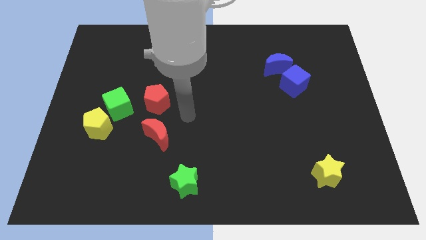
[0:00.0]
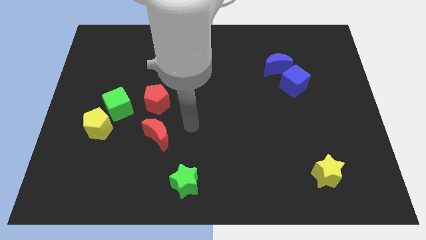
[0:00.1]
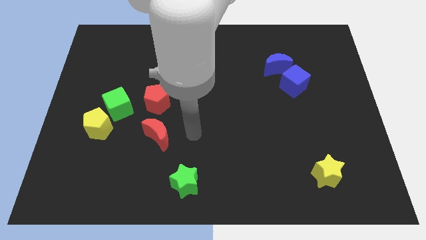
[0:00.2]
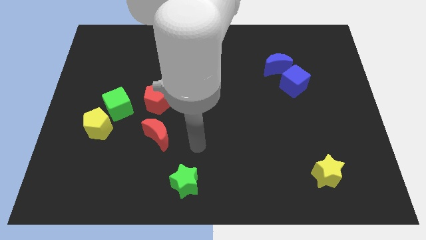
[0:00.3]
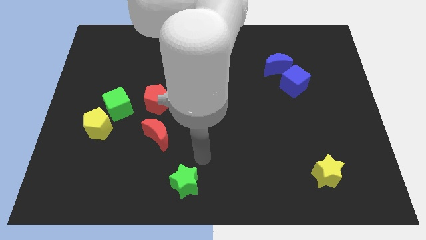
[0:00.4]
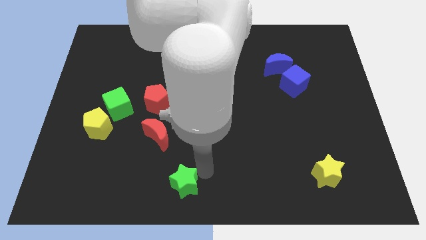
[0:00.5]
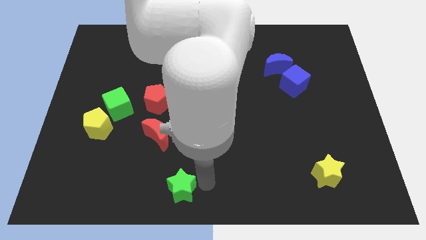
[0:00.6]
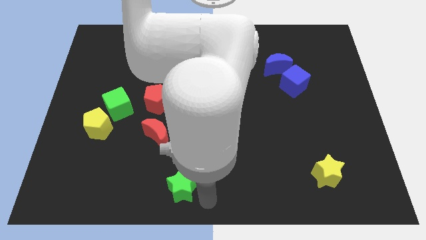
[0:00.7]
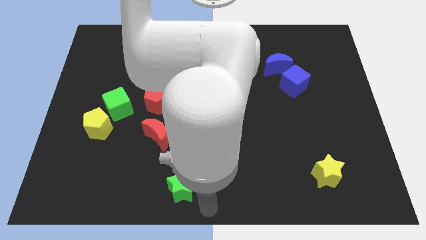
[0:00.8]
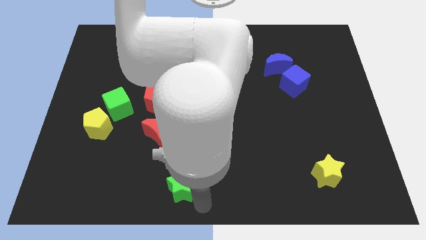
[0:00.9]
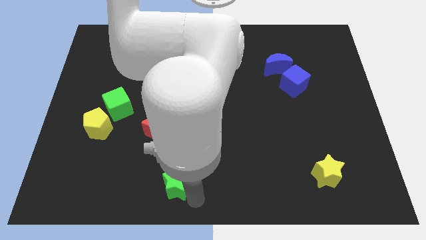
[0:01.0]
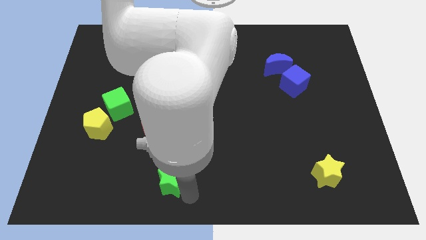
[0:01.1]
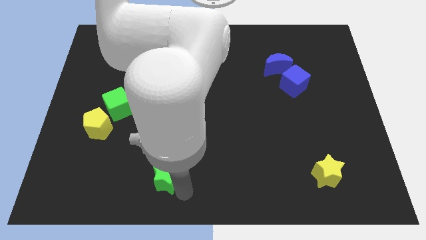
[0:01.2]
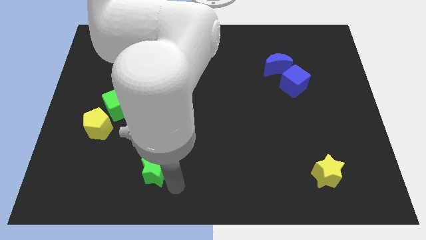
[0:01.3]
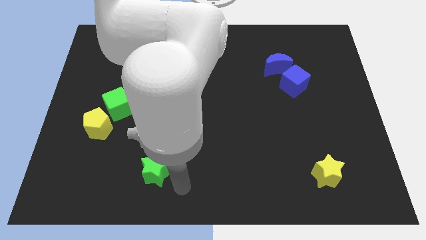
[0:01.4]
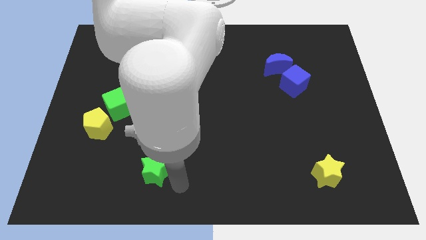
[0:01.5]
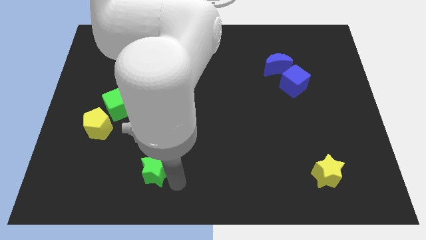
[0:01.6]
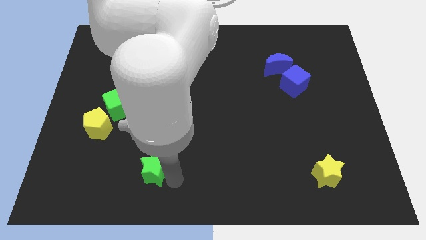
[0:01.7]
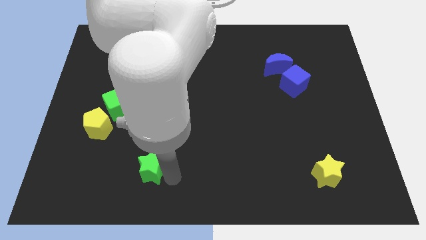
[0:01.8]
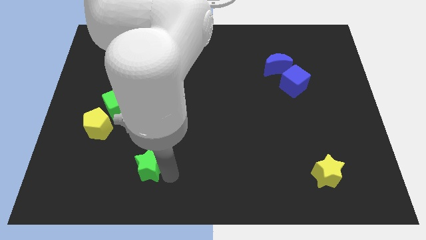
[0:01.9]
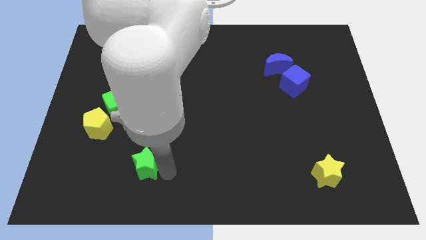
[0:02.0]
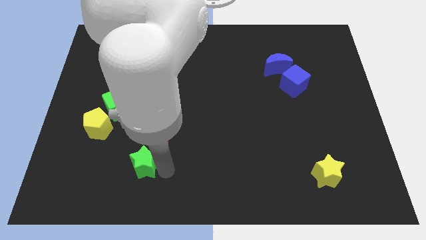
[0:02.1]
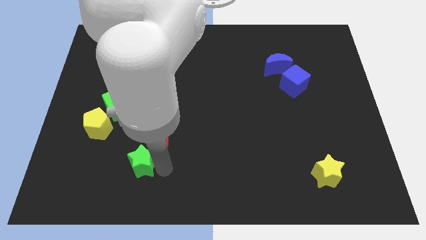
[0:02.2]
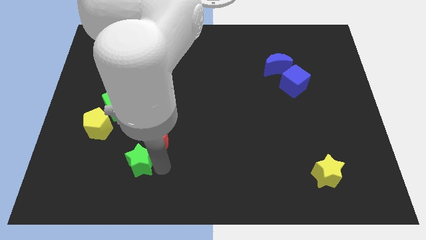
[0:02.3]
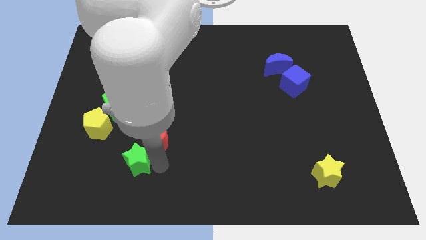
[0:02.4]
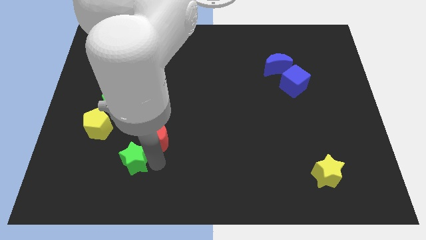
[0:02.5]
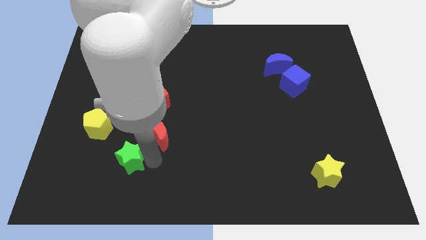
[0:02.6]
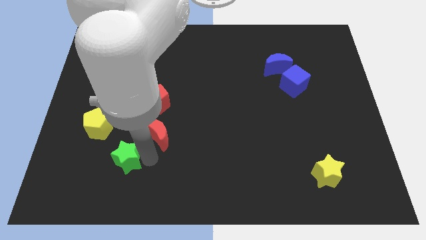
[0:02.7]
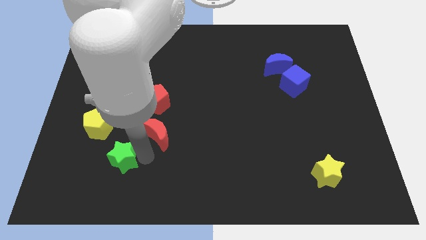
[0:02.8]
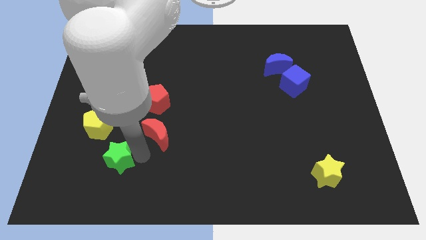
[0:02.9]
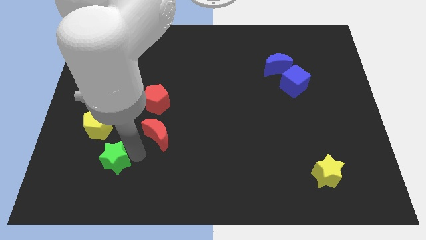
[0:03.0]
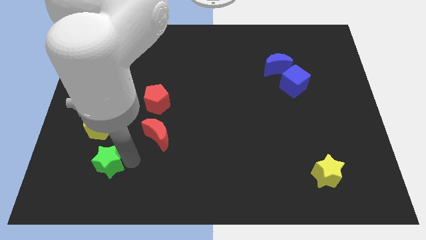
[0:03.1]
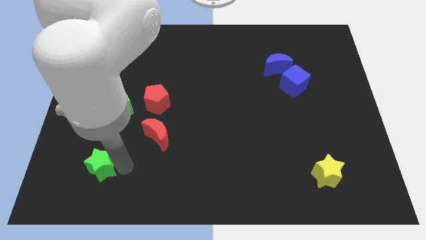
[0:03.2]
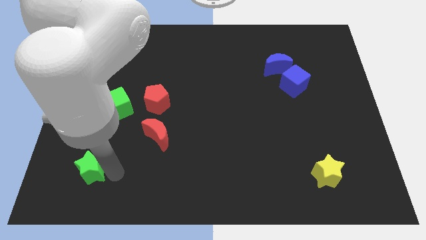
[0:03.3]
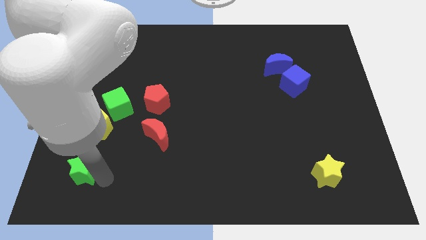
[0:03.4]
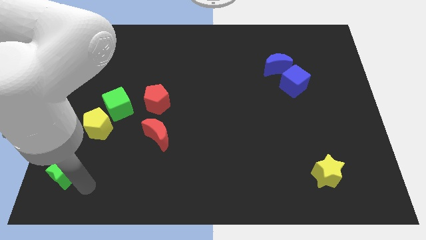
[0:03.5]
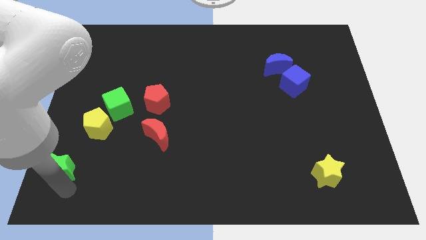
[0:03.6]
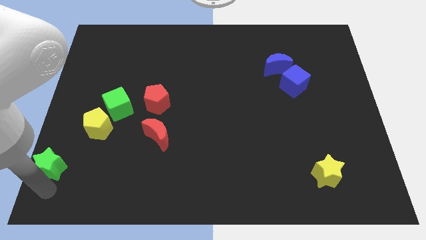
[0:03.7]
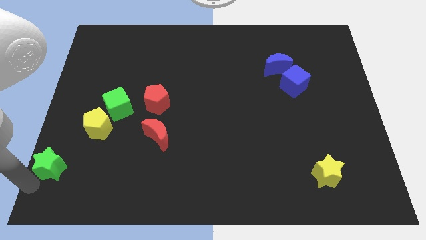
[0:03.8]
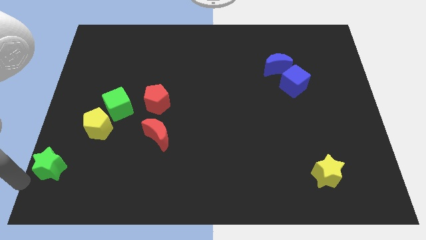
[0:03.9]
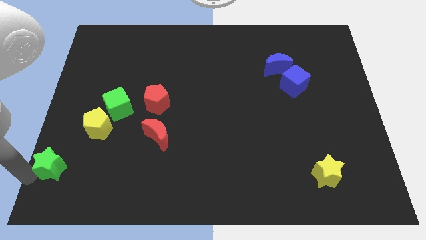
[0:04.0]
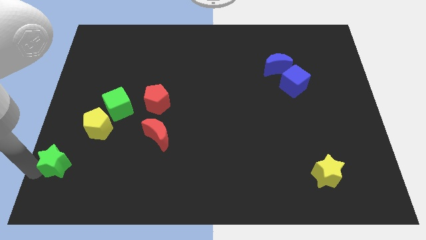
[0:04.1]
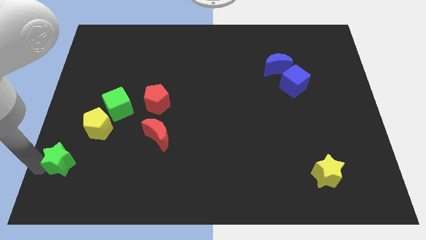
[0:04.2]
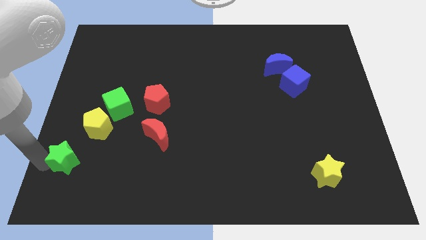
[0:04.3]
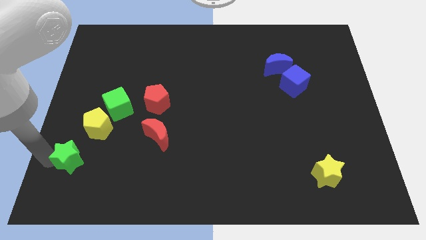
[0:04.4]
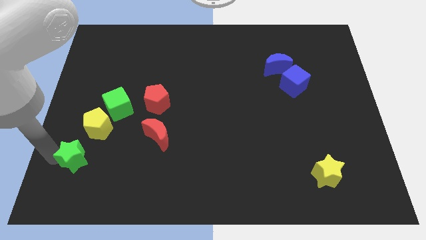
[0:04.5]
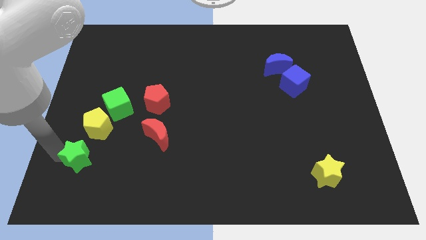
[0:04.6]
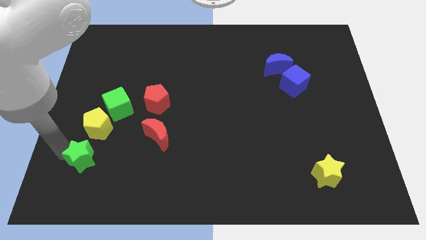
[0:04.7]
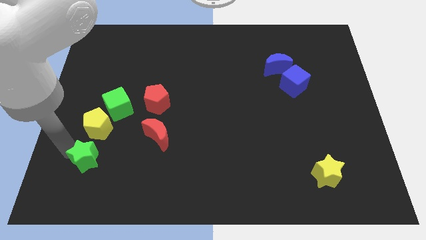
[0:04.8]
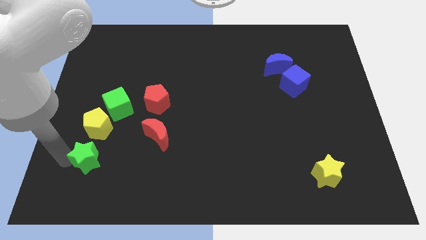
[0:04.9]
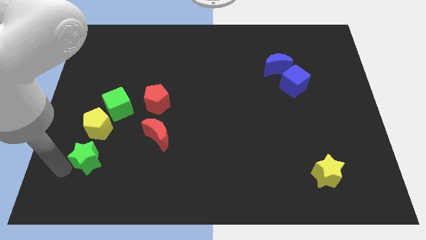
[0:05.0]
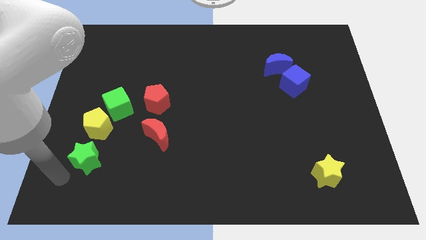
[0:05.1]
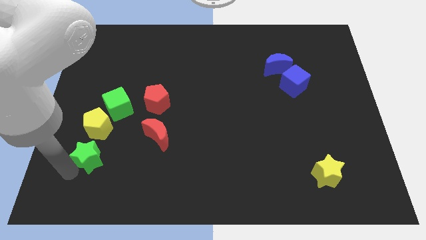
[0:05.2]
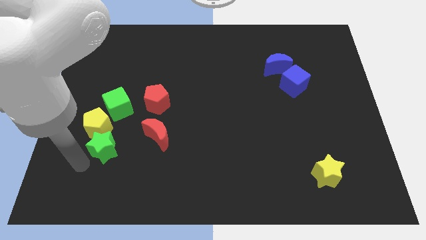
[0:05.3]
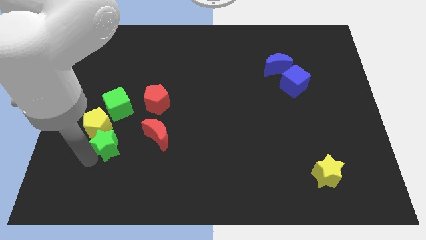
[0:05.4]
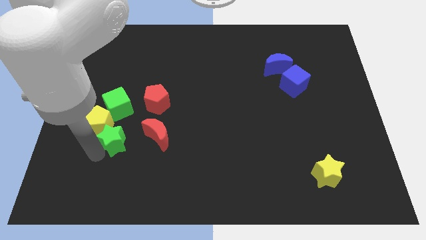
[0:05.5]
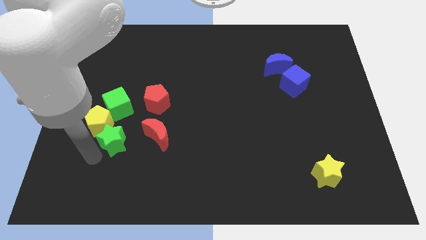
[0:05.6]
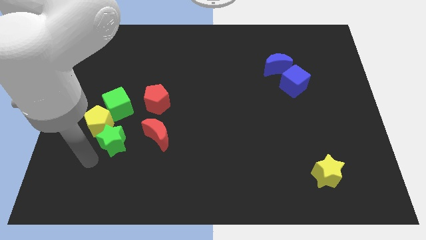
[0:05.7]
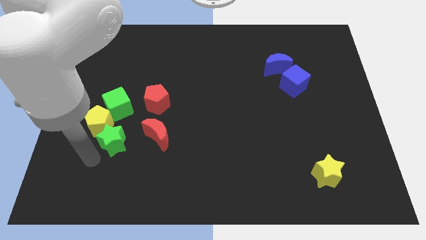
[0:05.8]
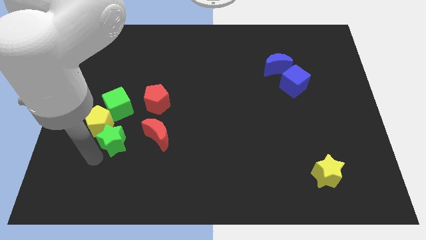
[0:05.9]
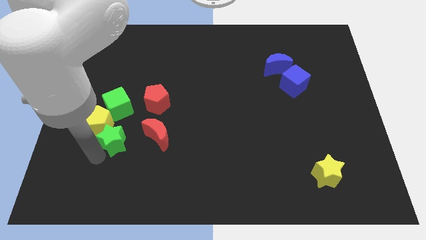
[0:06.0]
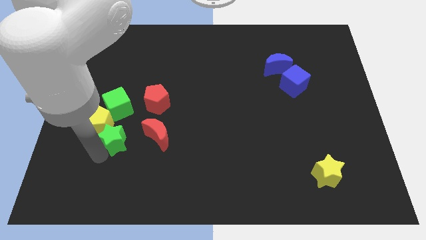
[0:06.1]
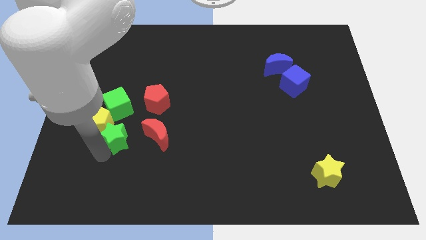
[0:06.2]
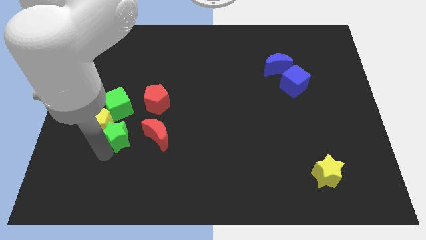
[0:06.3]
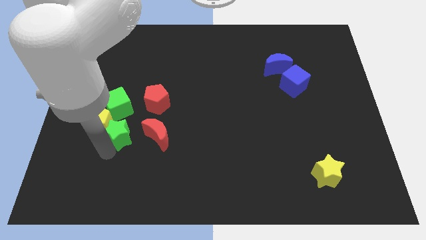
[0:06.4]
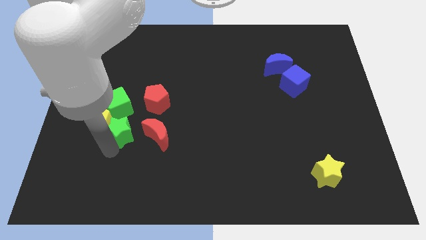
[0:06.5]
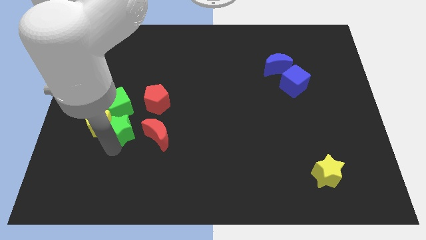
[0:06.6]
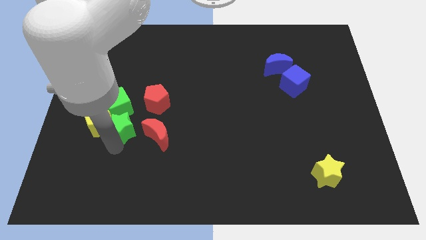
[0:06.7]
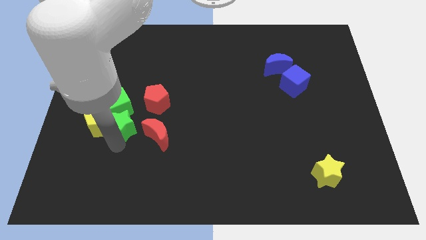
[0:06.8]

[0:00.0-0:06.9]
push the green star to the green cube

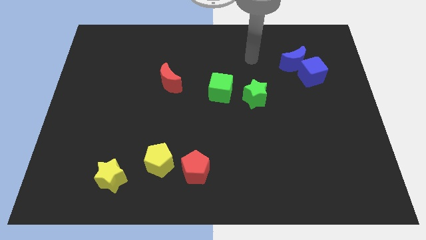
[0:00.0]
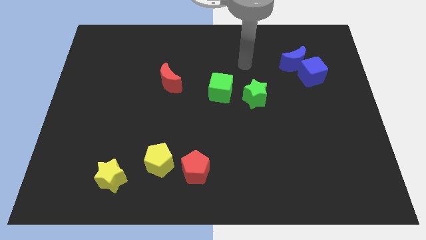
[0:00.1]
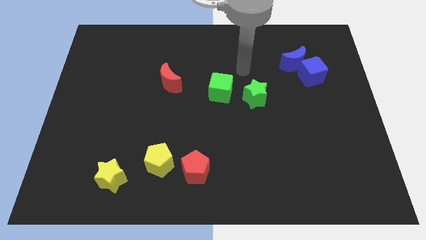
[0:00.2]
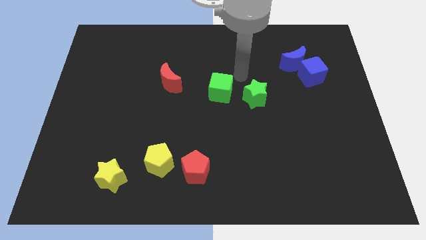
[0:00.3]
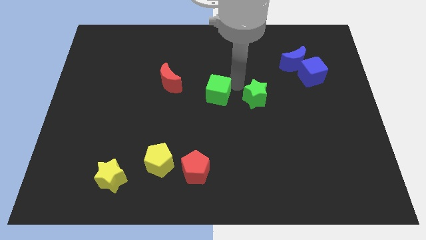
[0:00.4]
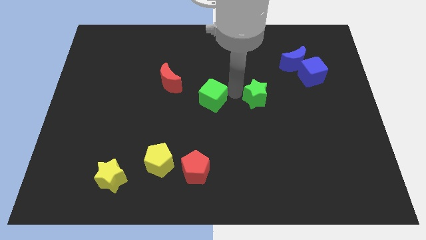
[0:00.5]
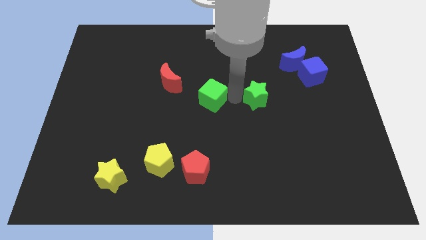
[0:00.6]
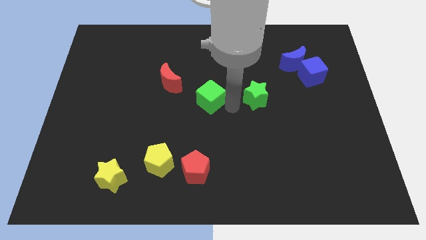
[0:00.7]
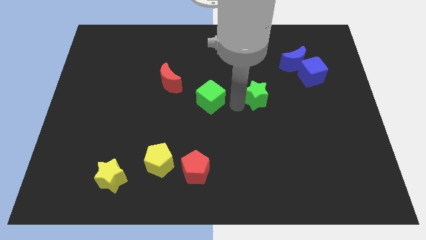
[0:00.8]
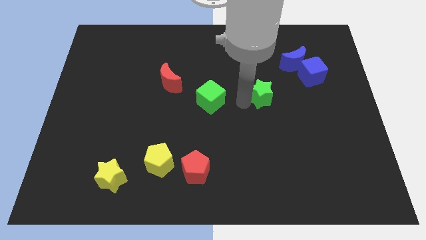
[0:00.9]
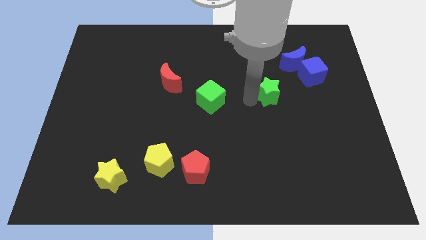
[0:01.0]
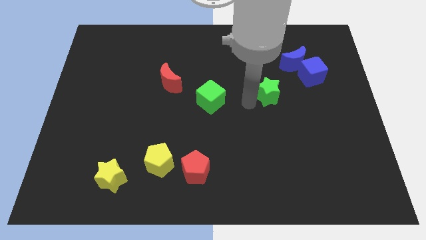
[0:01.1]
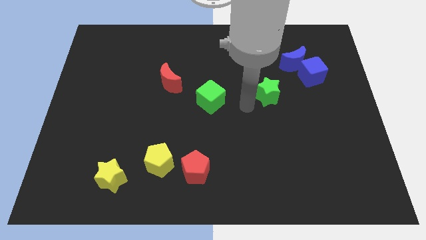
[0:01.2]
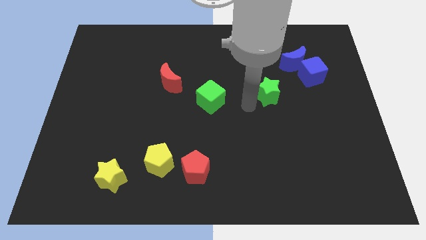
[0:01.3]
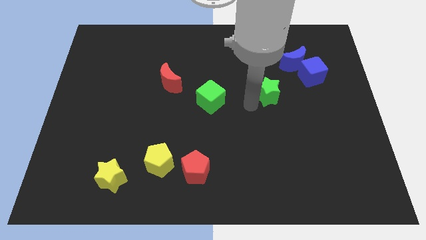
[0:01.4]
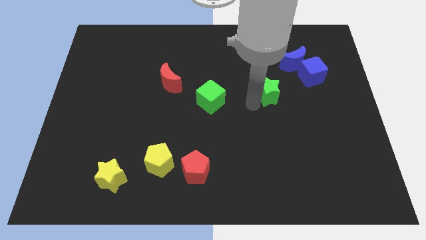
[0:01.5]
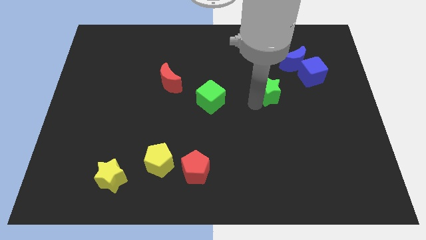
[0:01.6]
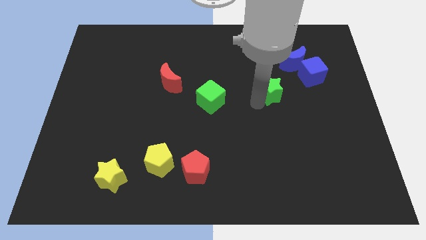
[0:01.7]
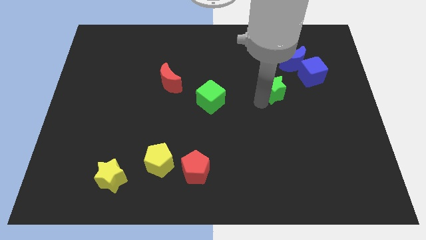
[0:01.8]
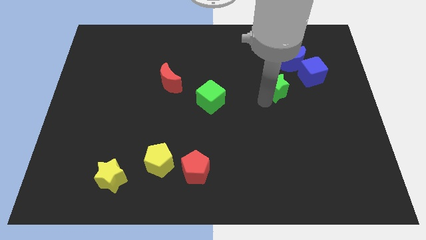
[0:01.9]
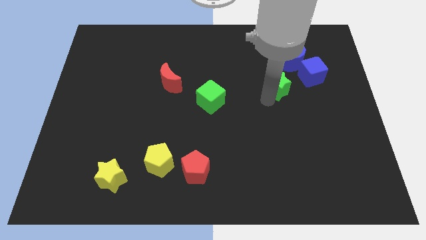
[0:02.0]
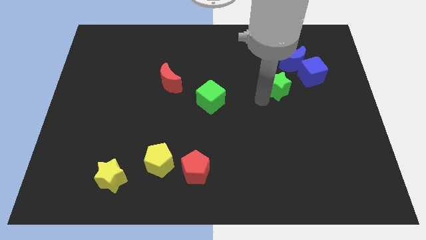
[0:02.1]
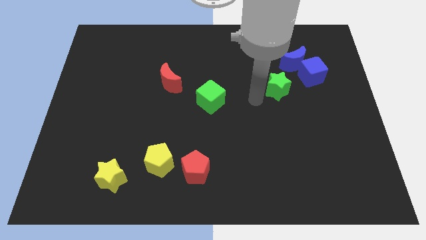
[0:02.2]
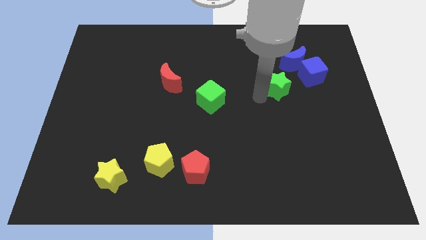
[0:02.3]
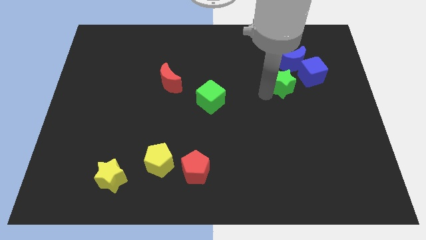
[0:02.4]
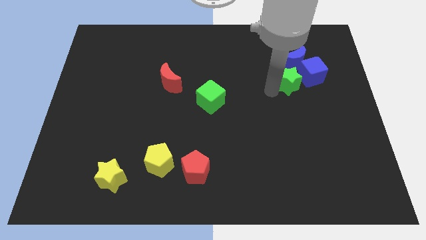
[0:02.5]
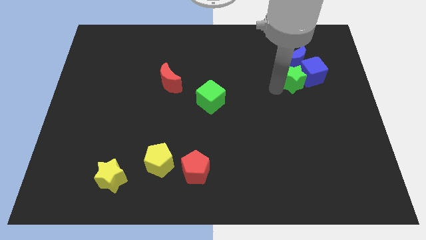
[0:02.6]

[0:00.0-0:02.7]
push the green star next to the blue cube
